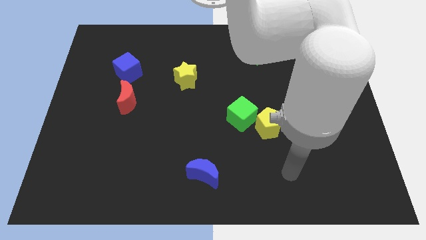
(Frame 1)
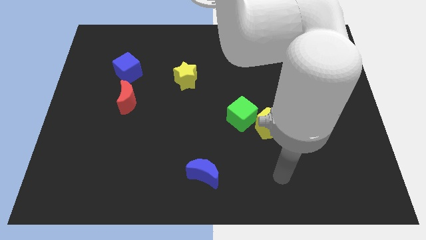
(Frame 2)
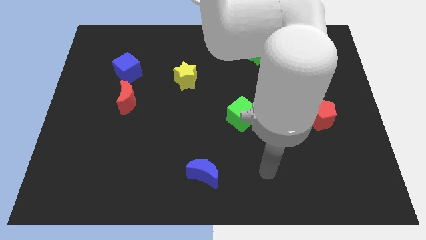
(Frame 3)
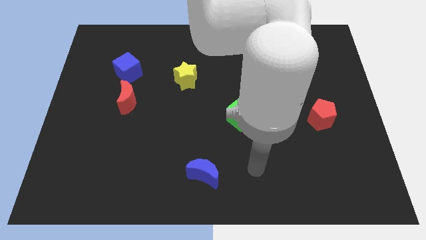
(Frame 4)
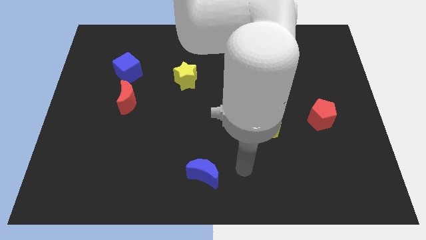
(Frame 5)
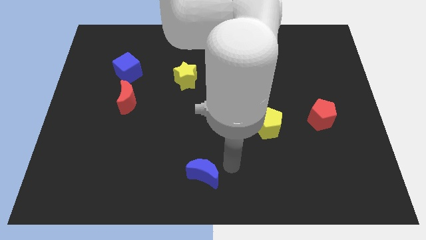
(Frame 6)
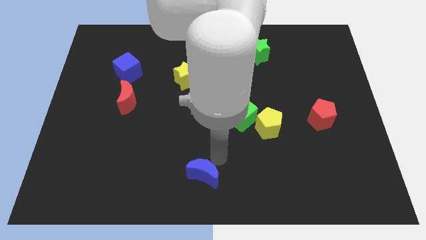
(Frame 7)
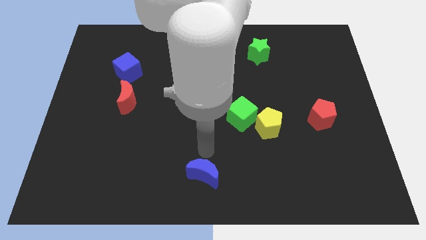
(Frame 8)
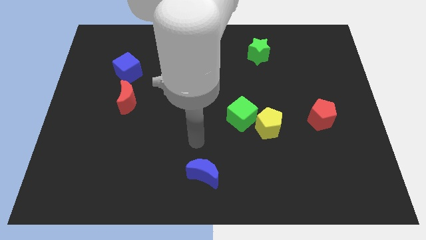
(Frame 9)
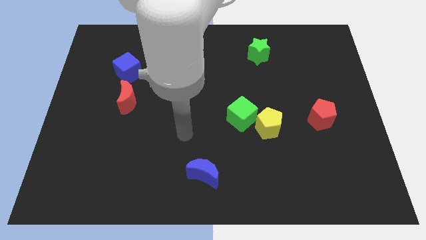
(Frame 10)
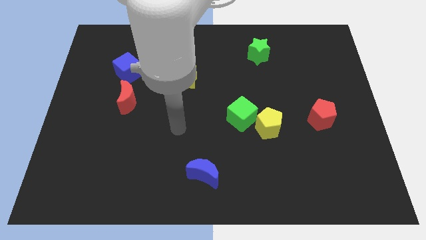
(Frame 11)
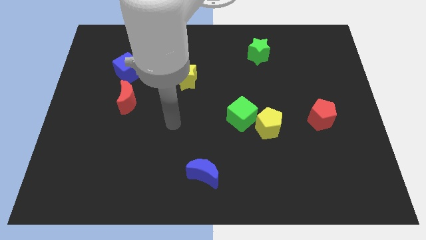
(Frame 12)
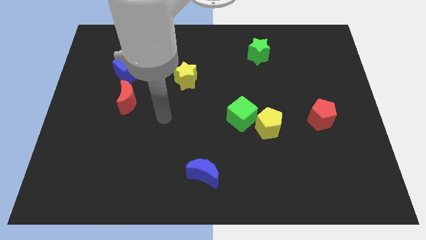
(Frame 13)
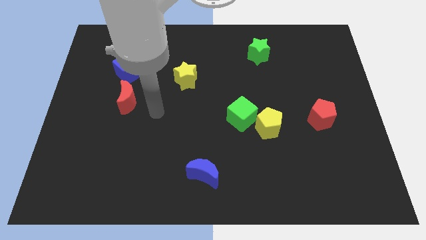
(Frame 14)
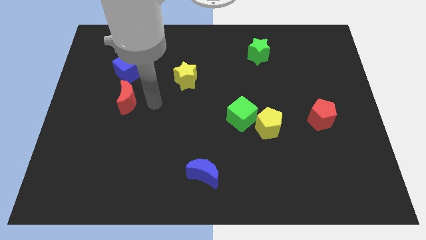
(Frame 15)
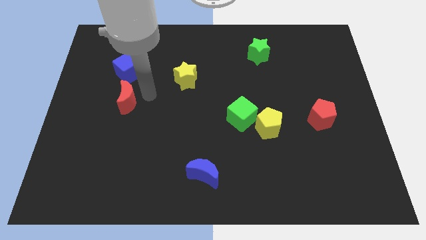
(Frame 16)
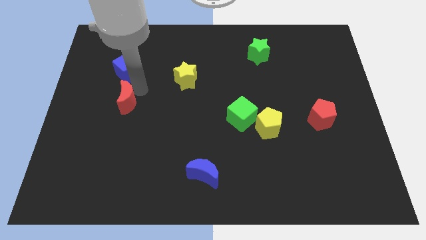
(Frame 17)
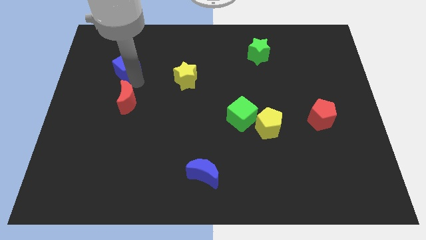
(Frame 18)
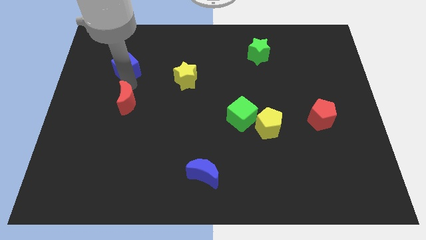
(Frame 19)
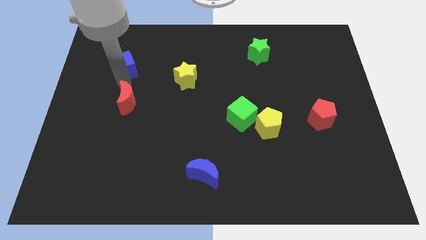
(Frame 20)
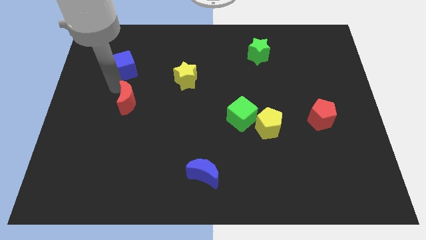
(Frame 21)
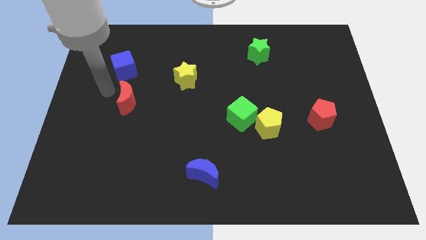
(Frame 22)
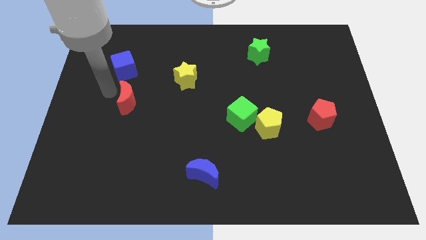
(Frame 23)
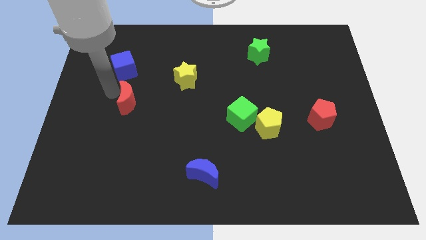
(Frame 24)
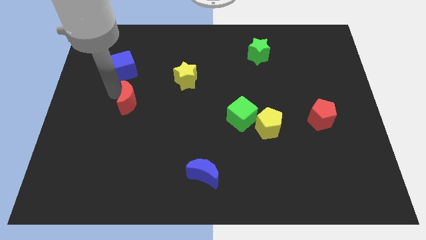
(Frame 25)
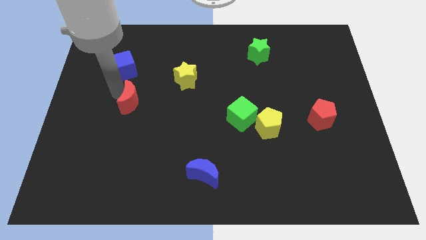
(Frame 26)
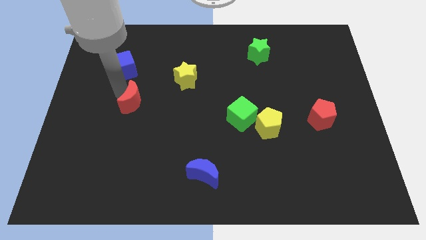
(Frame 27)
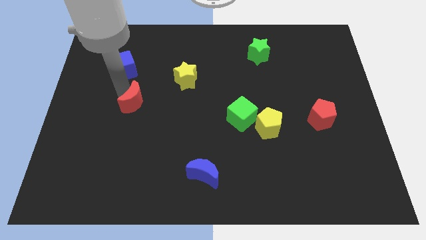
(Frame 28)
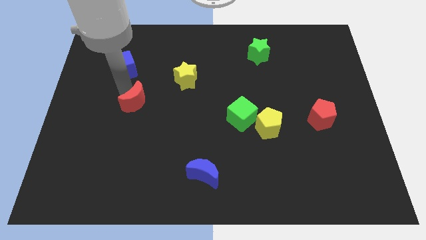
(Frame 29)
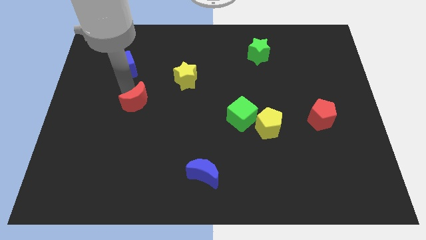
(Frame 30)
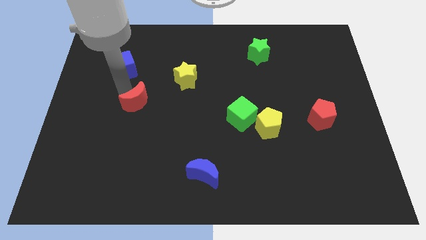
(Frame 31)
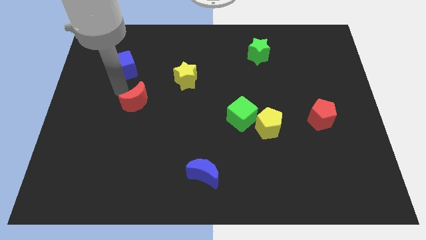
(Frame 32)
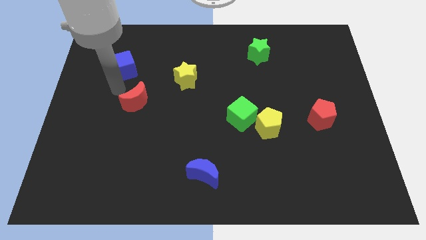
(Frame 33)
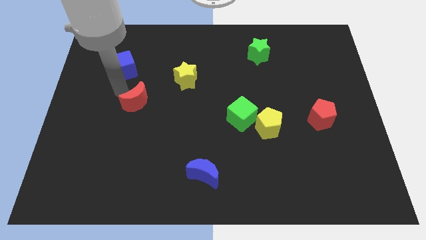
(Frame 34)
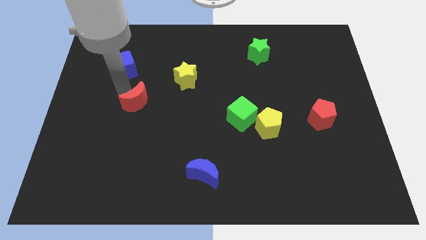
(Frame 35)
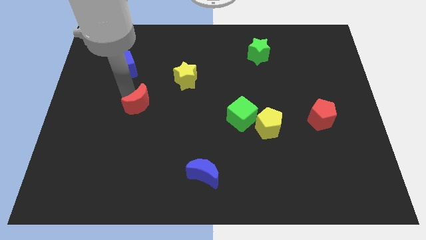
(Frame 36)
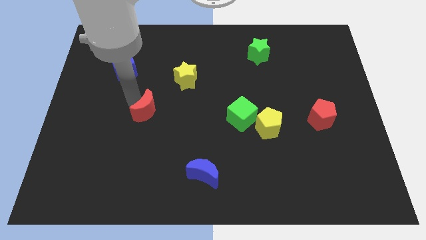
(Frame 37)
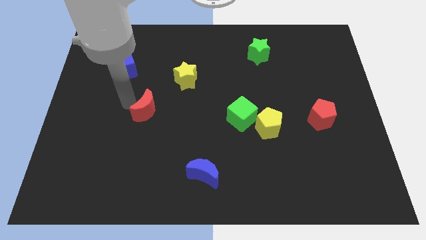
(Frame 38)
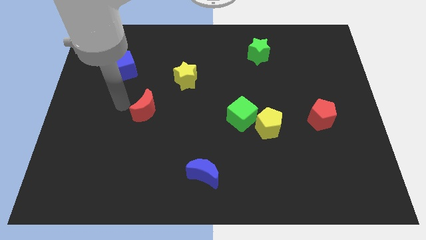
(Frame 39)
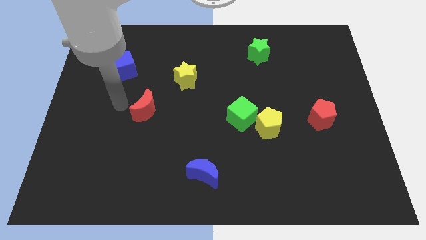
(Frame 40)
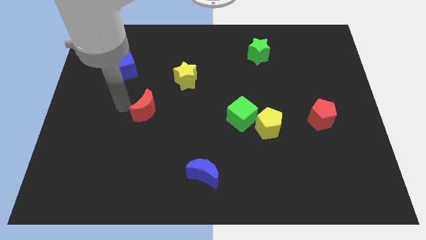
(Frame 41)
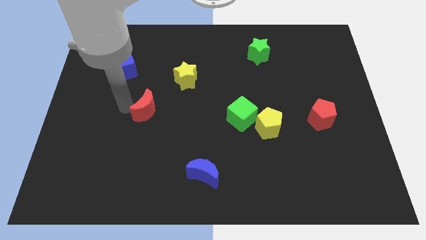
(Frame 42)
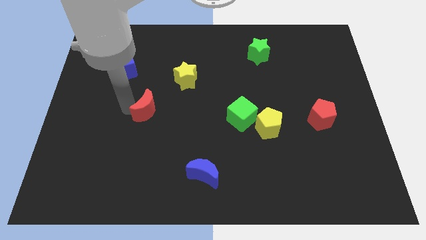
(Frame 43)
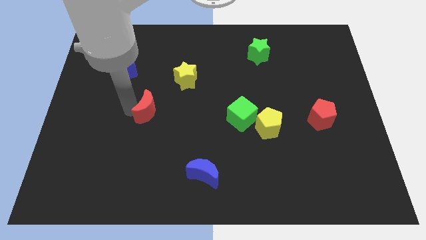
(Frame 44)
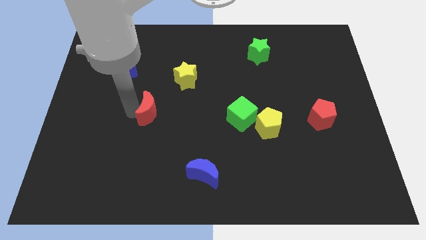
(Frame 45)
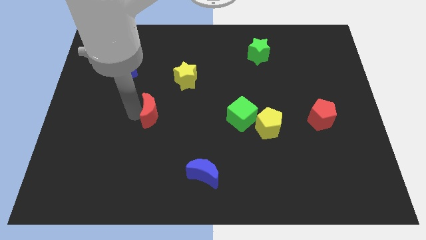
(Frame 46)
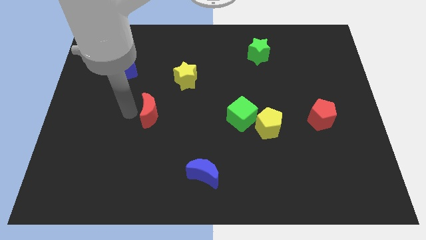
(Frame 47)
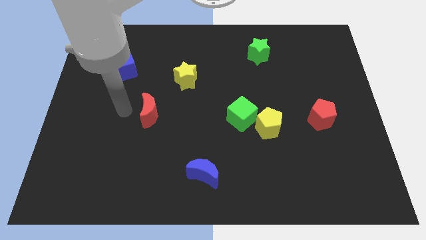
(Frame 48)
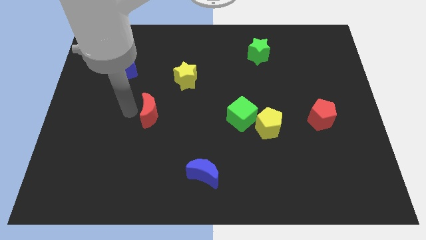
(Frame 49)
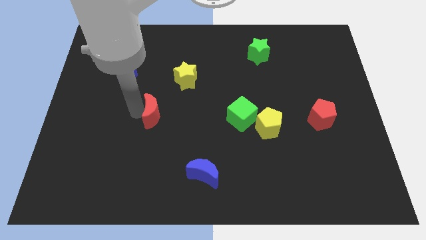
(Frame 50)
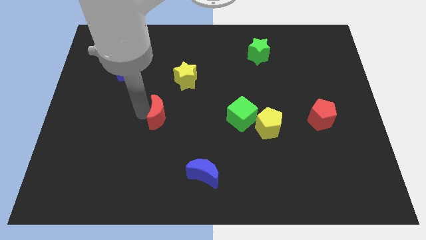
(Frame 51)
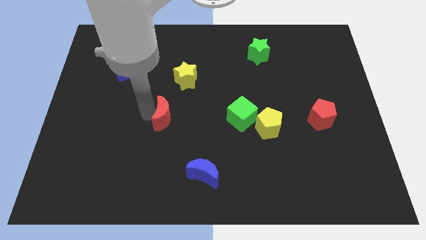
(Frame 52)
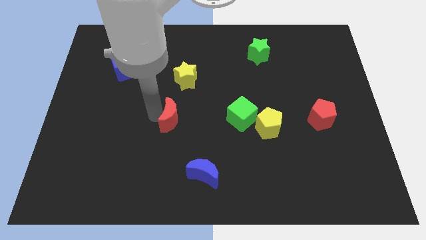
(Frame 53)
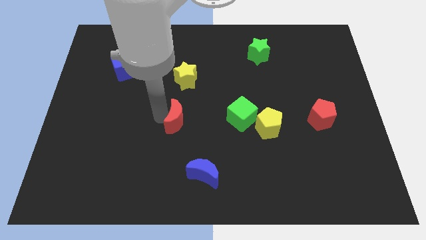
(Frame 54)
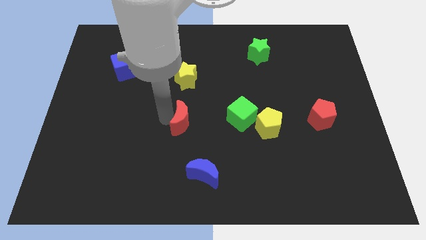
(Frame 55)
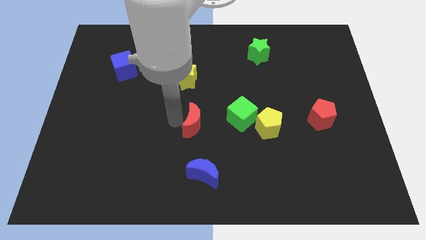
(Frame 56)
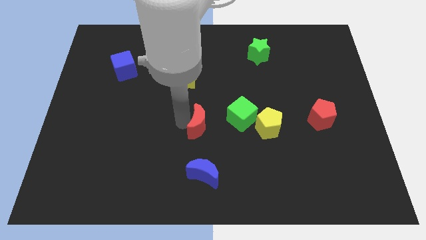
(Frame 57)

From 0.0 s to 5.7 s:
slide the red moon just left of the yellow pentagon

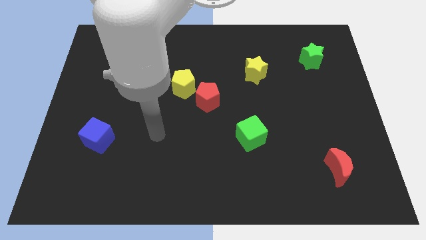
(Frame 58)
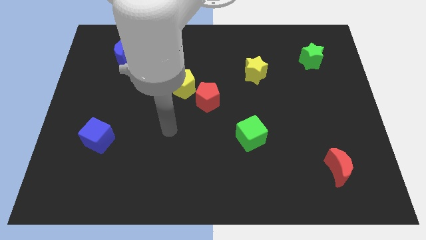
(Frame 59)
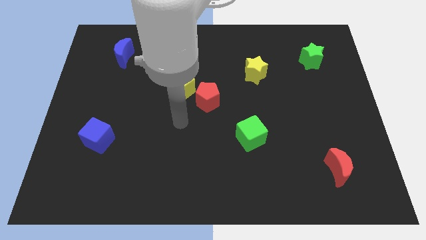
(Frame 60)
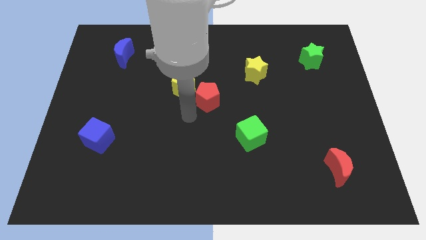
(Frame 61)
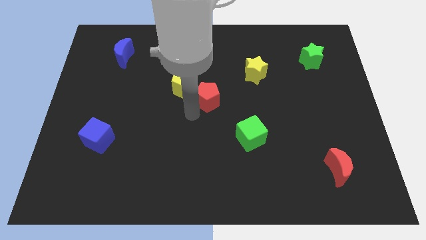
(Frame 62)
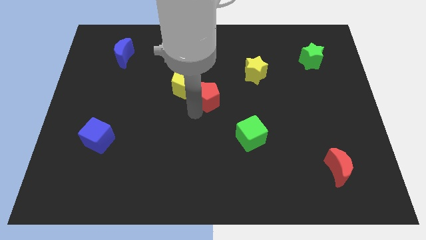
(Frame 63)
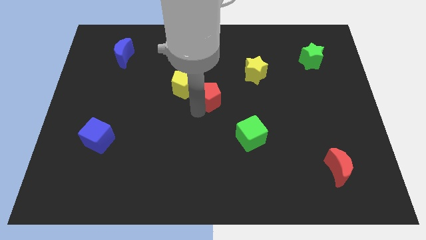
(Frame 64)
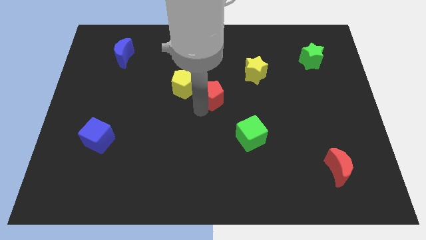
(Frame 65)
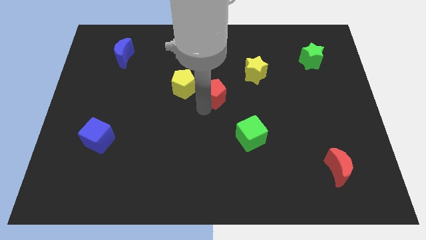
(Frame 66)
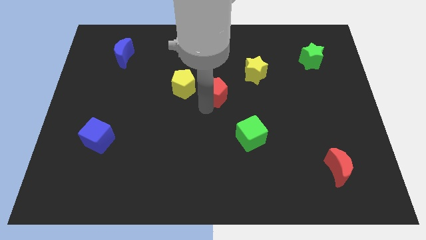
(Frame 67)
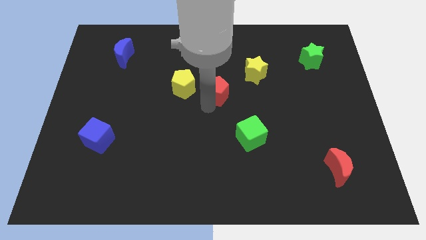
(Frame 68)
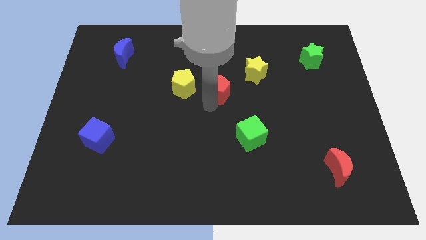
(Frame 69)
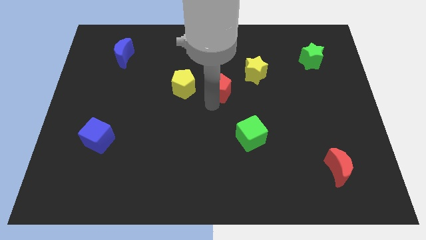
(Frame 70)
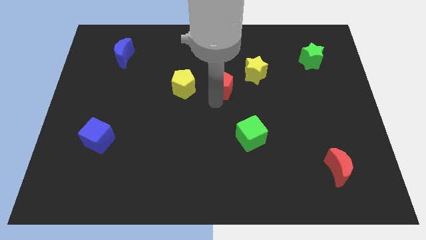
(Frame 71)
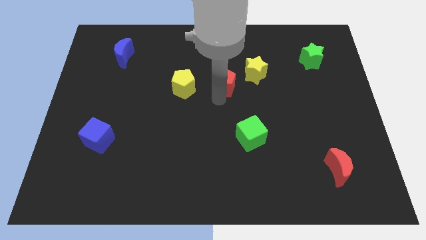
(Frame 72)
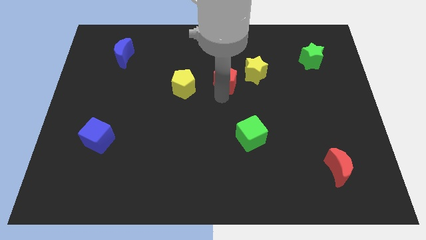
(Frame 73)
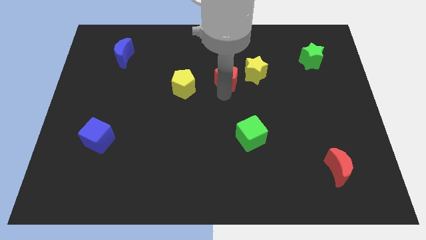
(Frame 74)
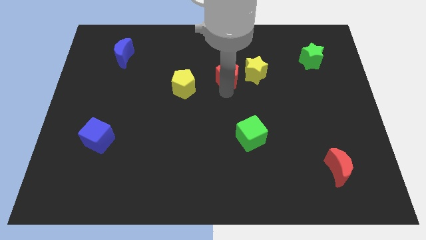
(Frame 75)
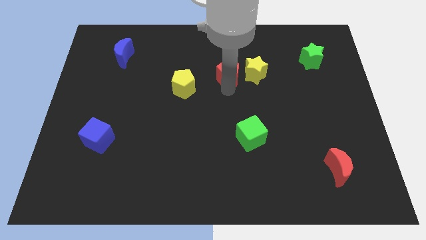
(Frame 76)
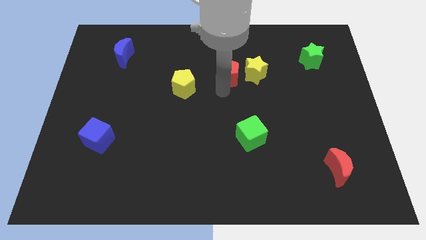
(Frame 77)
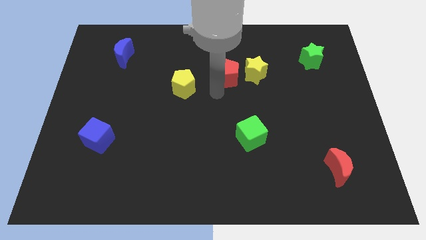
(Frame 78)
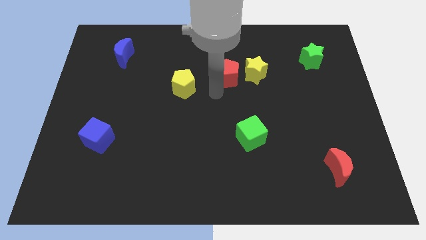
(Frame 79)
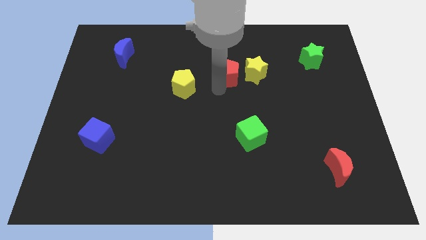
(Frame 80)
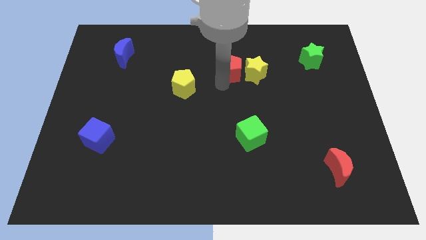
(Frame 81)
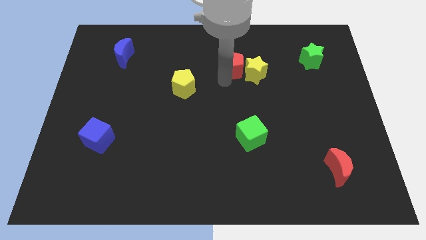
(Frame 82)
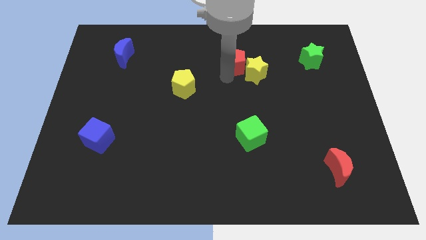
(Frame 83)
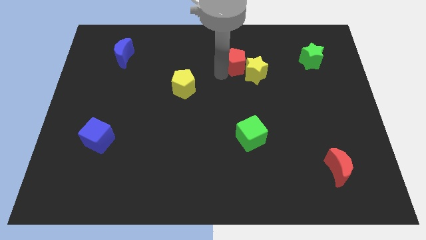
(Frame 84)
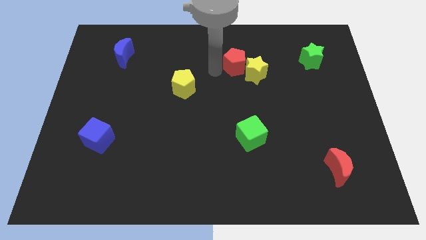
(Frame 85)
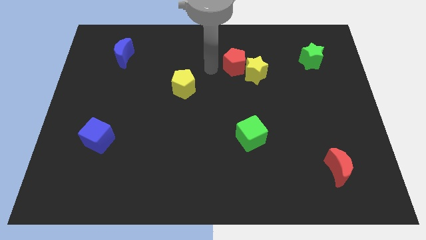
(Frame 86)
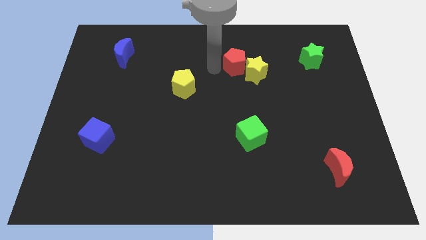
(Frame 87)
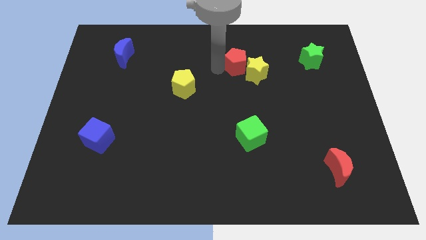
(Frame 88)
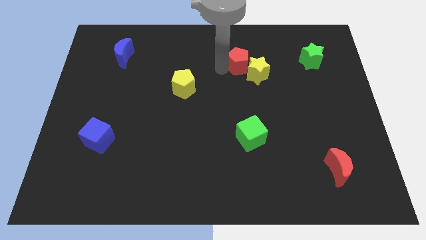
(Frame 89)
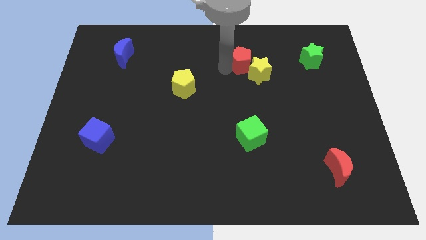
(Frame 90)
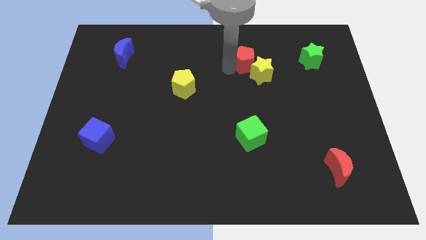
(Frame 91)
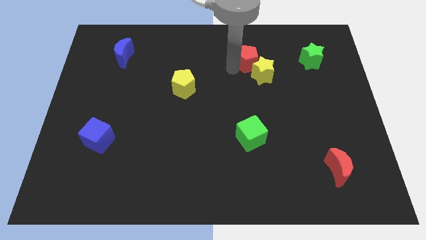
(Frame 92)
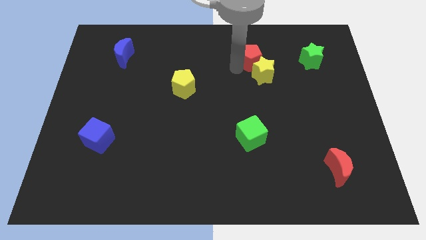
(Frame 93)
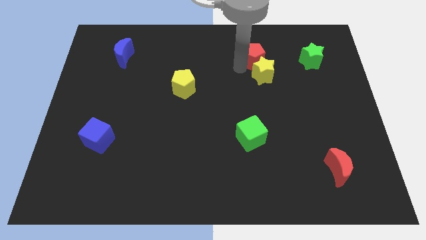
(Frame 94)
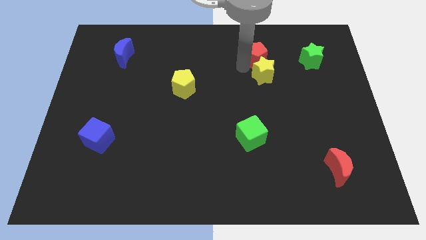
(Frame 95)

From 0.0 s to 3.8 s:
move the red pentagon to the top right of the yellow star
